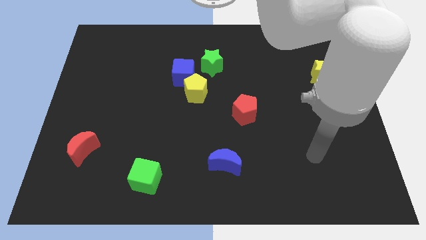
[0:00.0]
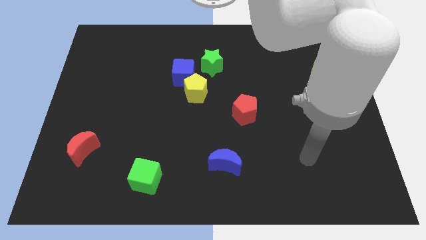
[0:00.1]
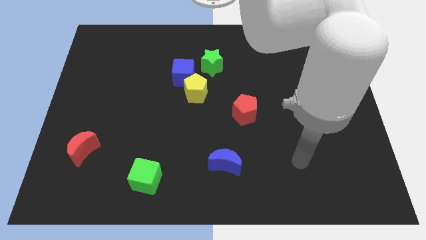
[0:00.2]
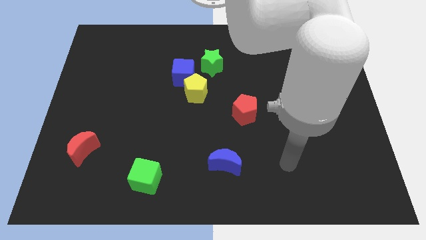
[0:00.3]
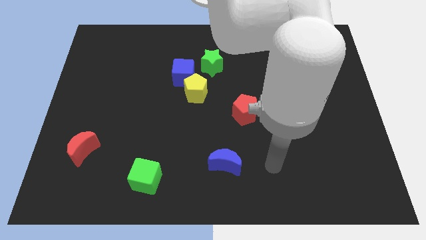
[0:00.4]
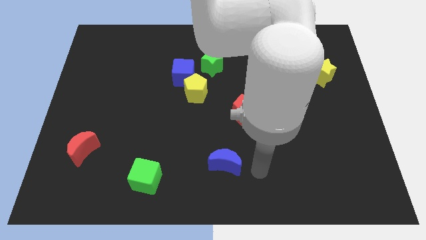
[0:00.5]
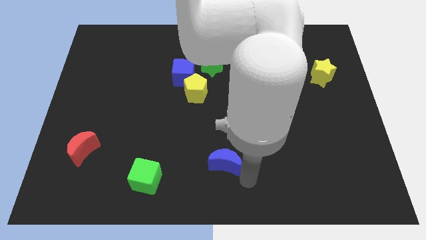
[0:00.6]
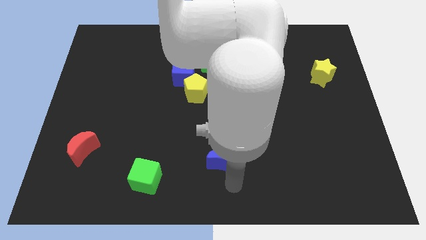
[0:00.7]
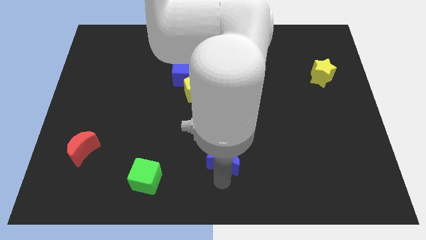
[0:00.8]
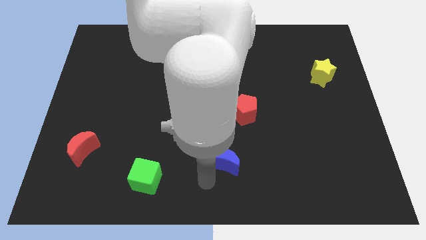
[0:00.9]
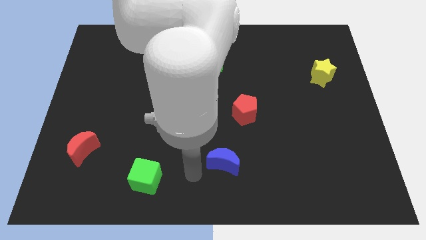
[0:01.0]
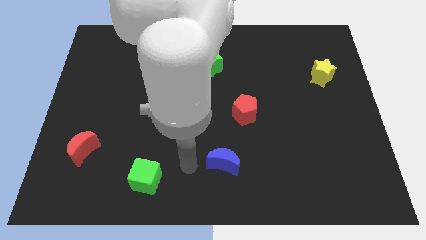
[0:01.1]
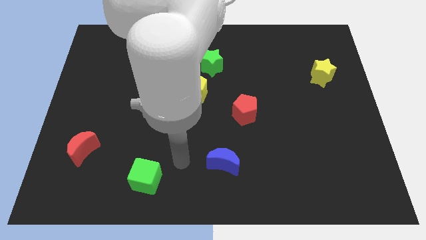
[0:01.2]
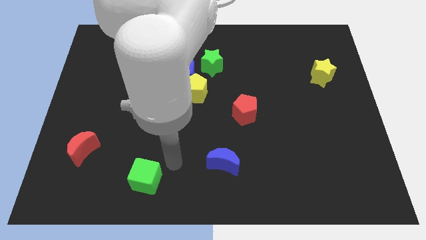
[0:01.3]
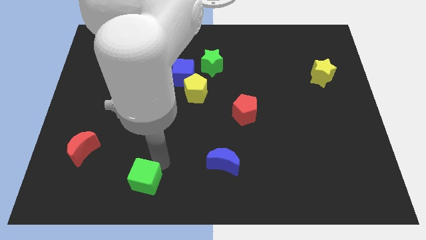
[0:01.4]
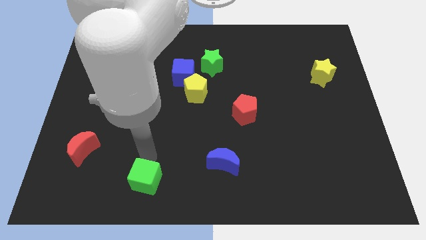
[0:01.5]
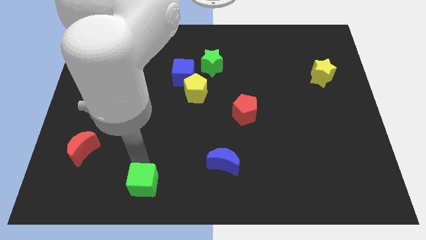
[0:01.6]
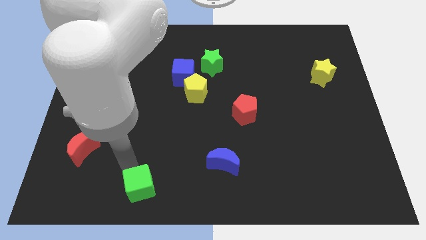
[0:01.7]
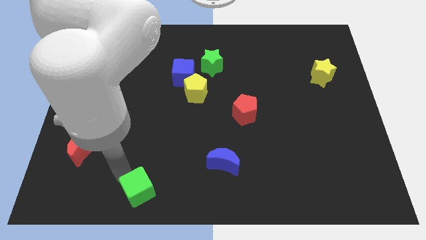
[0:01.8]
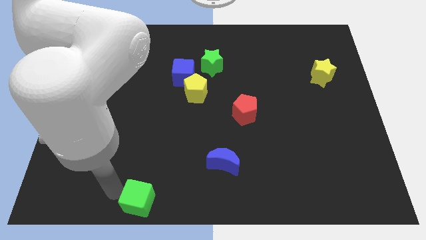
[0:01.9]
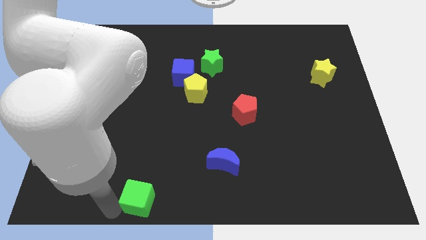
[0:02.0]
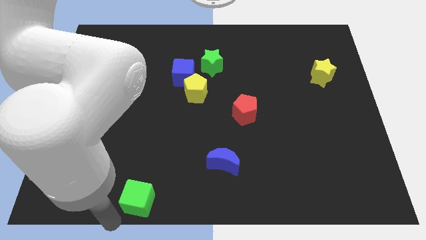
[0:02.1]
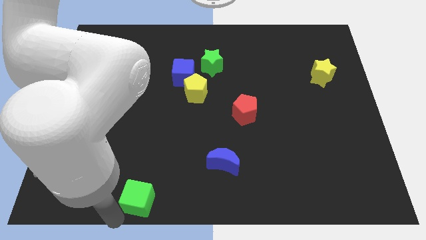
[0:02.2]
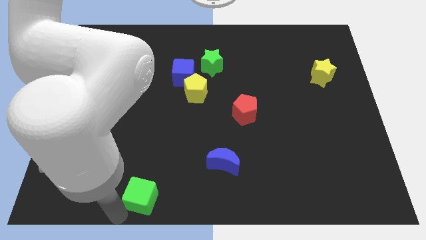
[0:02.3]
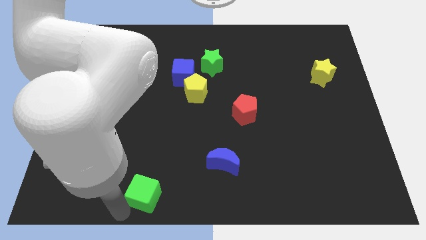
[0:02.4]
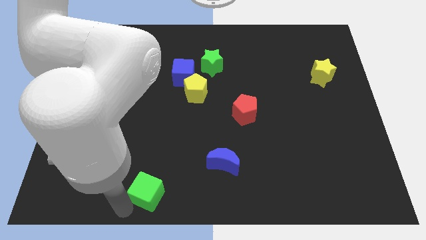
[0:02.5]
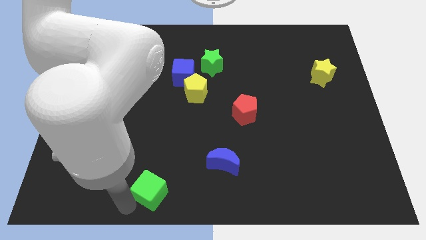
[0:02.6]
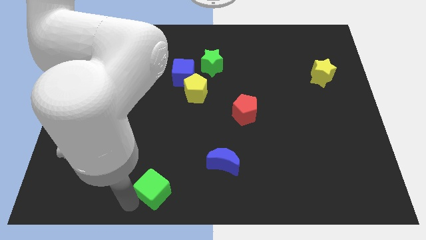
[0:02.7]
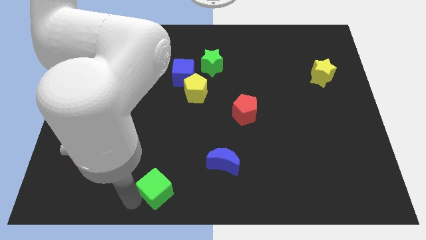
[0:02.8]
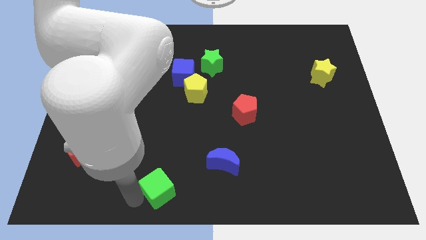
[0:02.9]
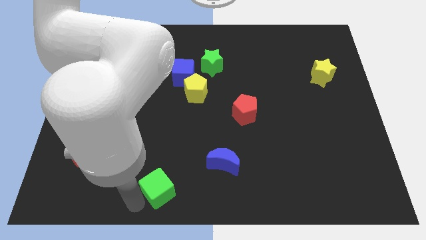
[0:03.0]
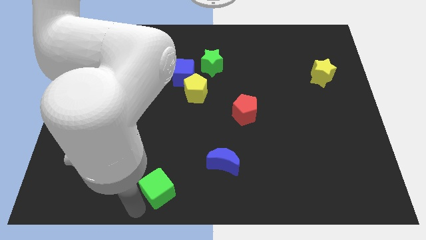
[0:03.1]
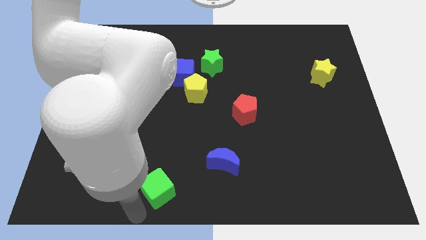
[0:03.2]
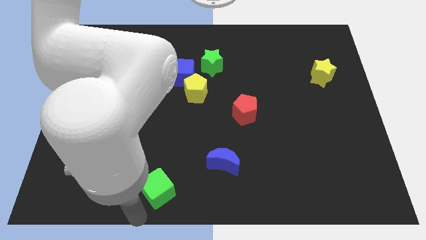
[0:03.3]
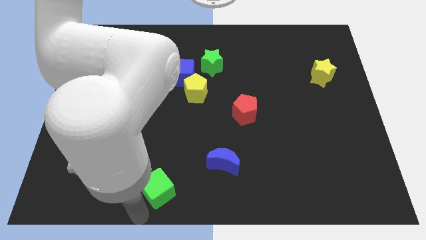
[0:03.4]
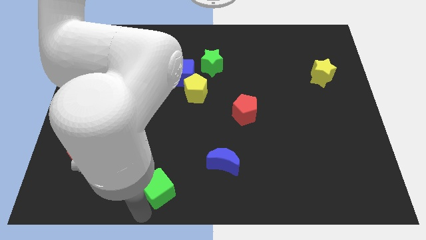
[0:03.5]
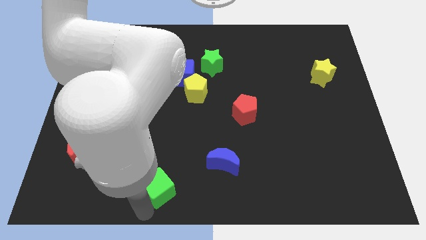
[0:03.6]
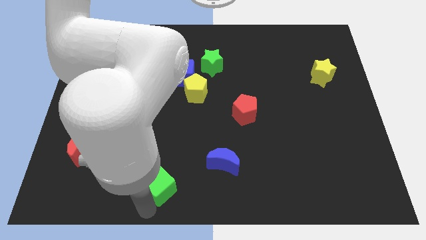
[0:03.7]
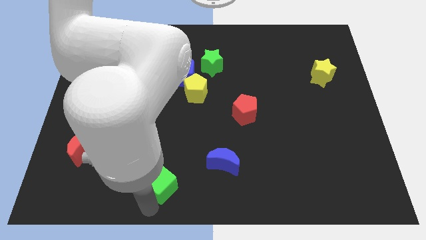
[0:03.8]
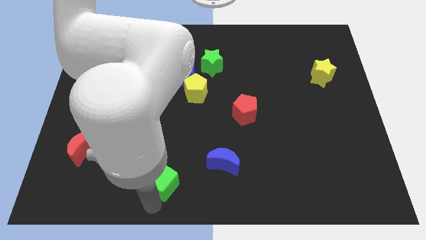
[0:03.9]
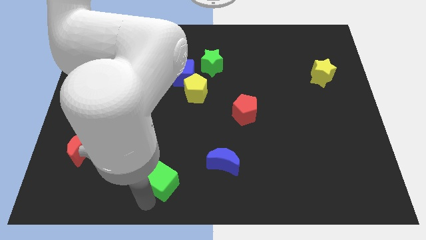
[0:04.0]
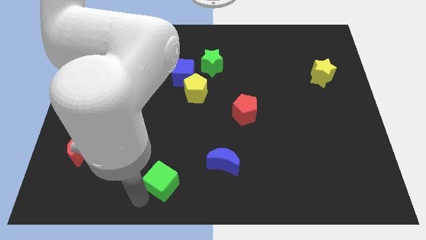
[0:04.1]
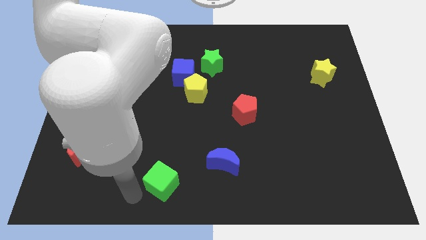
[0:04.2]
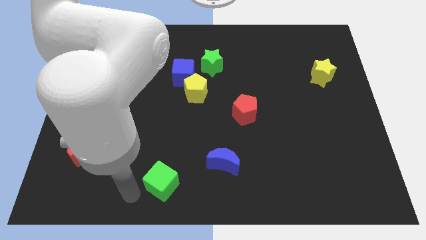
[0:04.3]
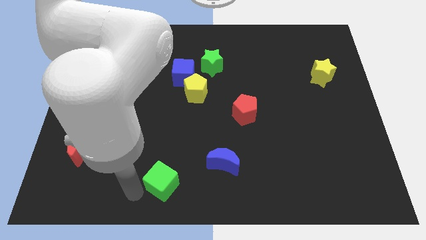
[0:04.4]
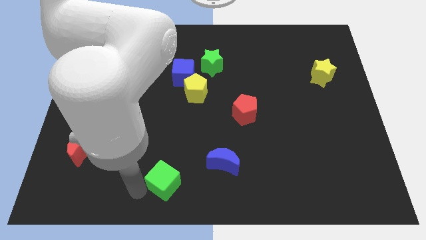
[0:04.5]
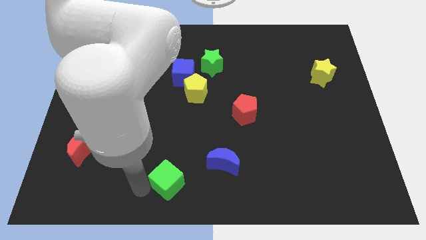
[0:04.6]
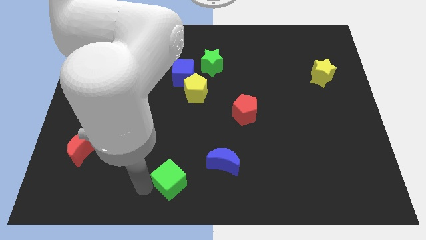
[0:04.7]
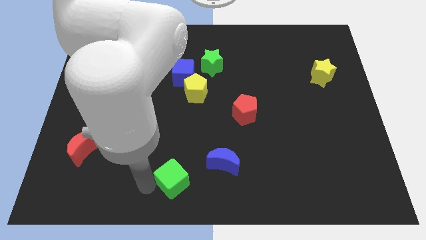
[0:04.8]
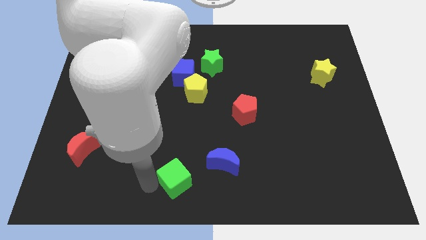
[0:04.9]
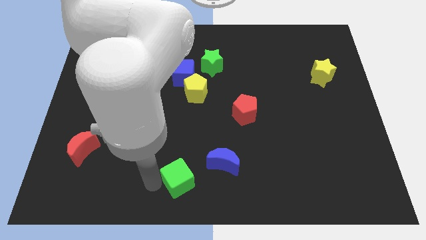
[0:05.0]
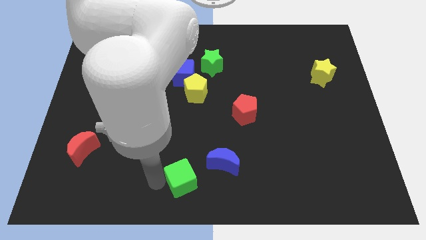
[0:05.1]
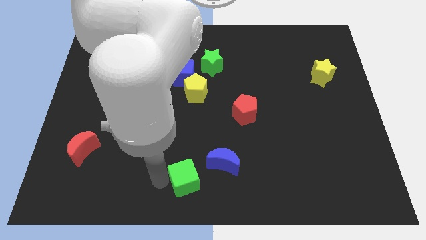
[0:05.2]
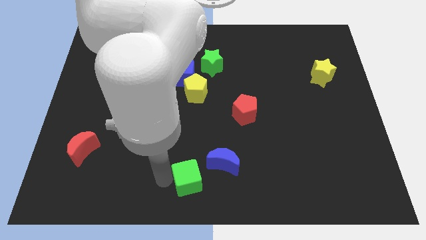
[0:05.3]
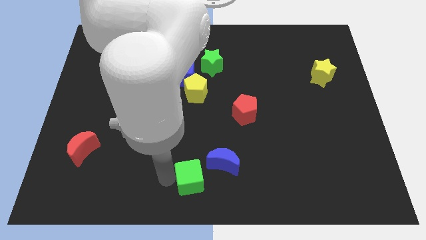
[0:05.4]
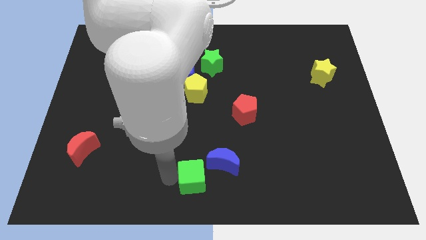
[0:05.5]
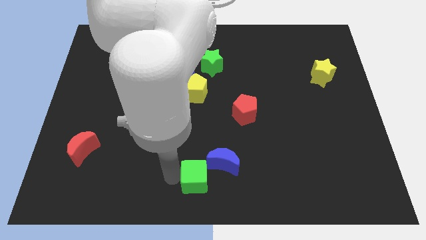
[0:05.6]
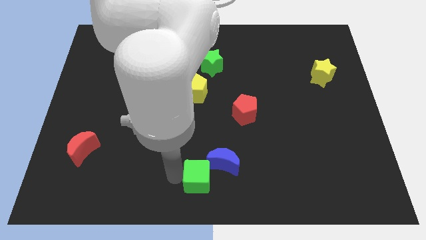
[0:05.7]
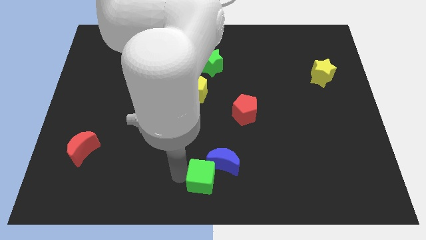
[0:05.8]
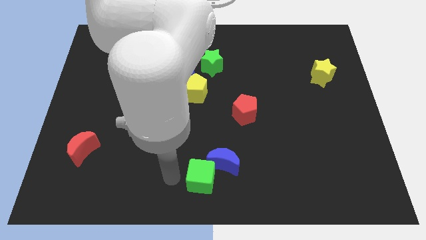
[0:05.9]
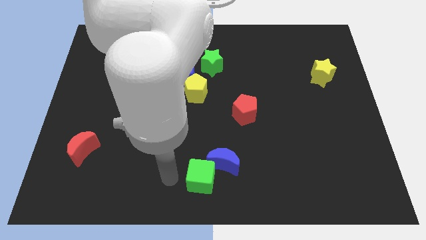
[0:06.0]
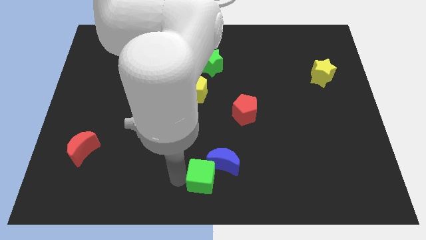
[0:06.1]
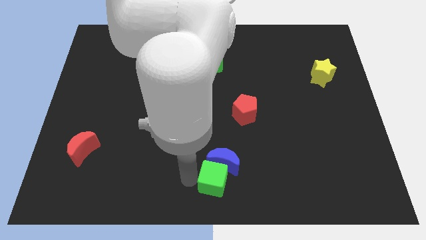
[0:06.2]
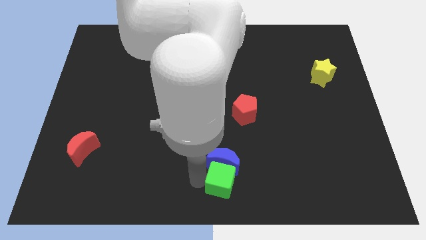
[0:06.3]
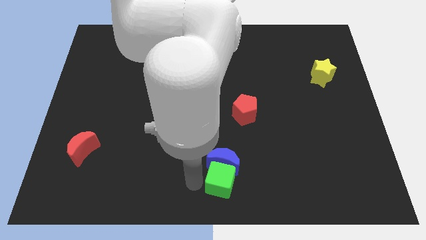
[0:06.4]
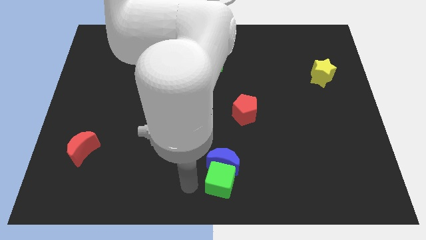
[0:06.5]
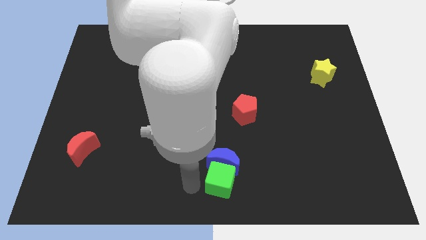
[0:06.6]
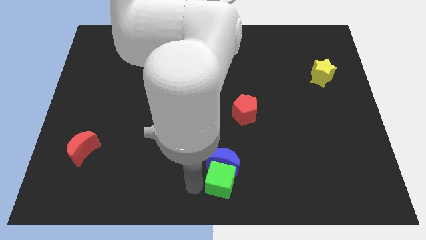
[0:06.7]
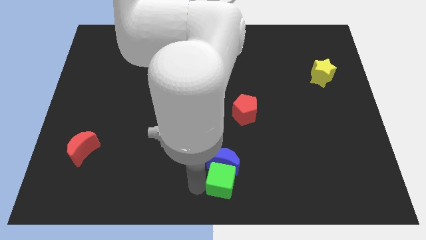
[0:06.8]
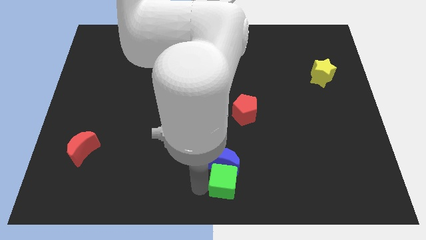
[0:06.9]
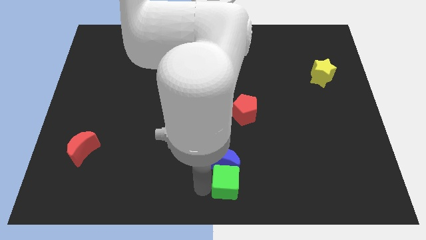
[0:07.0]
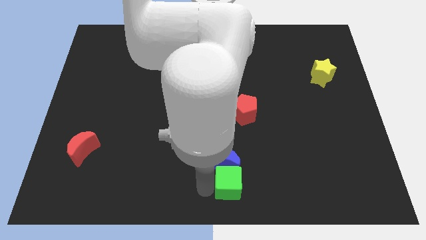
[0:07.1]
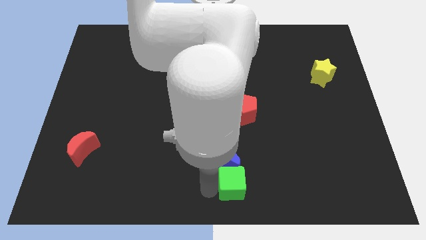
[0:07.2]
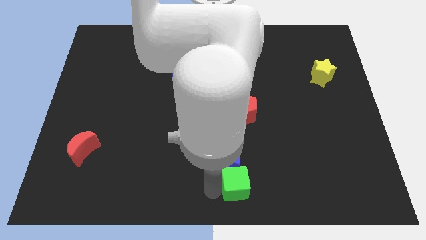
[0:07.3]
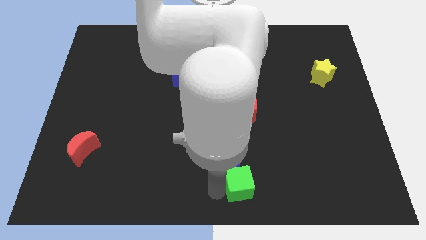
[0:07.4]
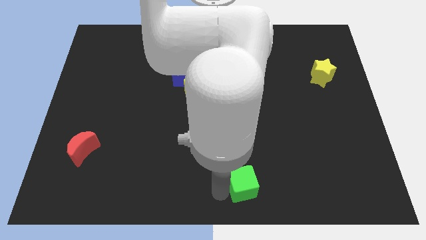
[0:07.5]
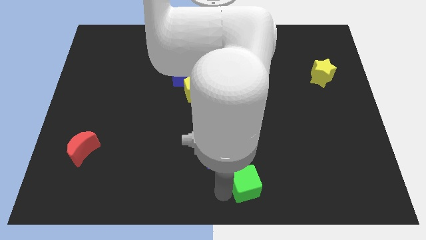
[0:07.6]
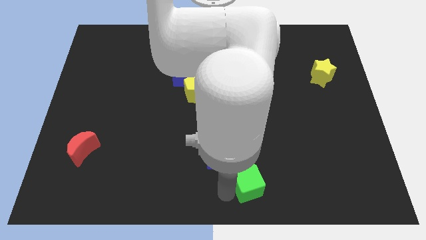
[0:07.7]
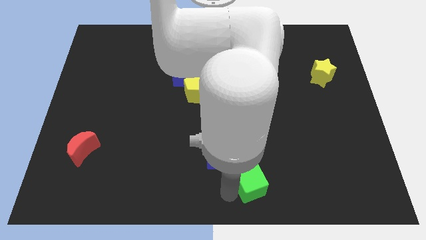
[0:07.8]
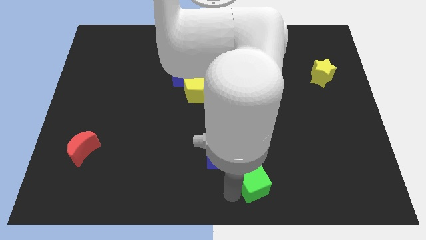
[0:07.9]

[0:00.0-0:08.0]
put the green cube just right of the blue moon
